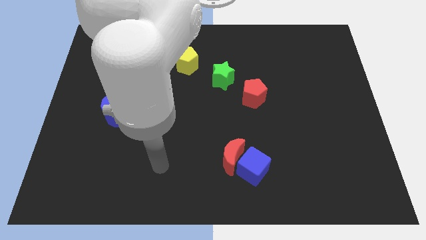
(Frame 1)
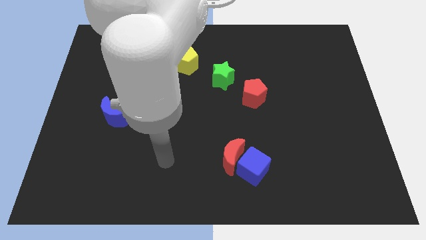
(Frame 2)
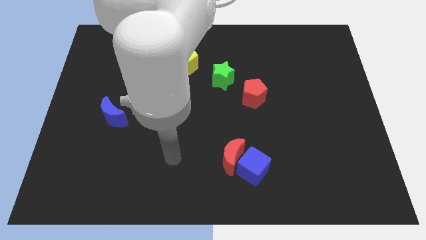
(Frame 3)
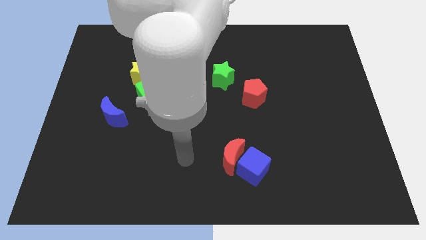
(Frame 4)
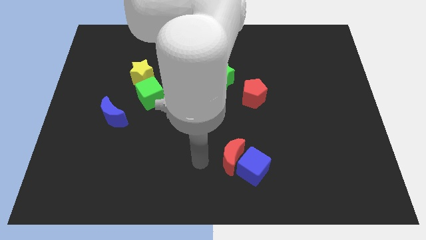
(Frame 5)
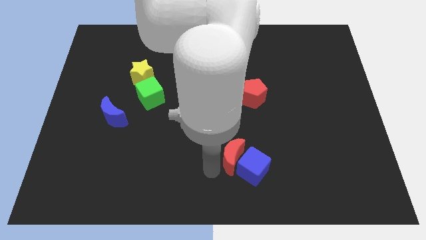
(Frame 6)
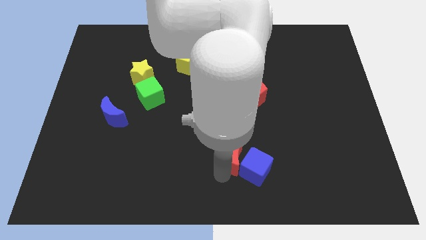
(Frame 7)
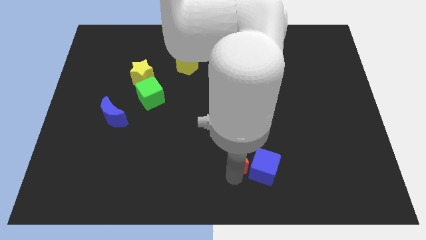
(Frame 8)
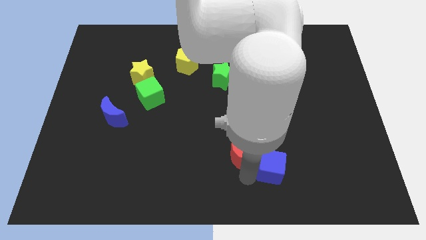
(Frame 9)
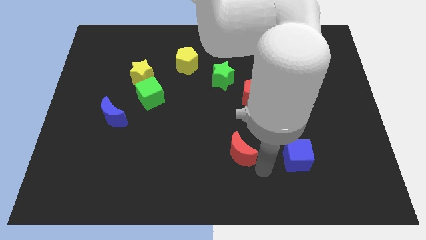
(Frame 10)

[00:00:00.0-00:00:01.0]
move the red moon away from the blue cube

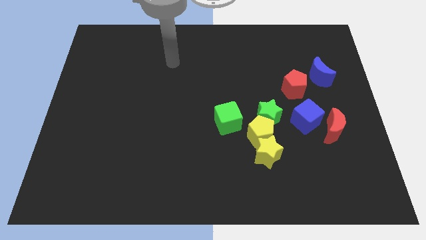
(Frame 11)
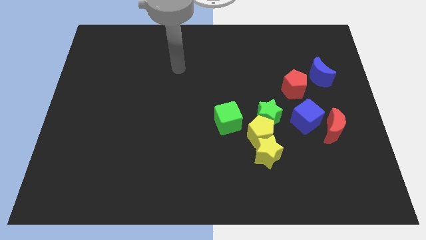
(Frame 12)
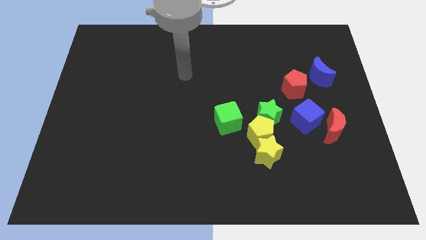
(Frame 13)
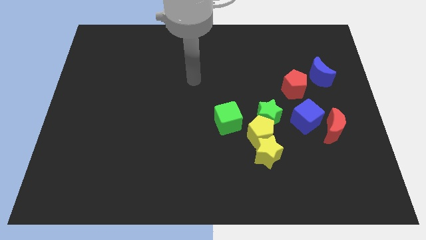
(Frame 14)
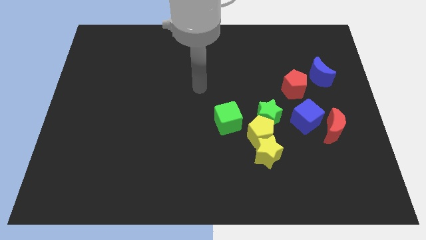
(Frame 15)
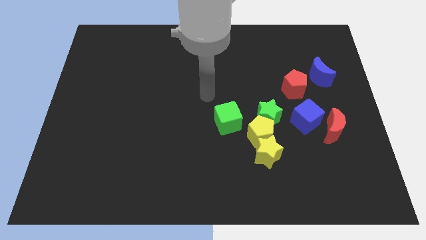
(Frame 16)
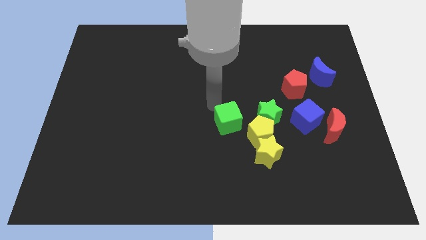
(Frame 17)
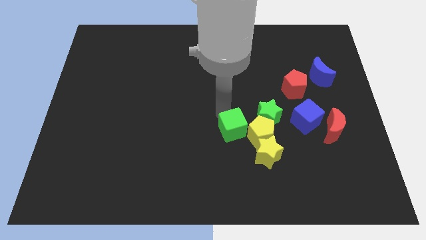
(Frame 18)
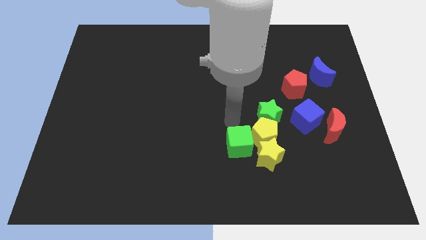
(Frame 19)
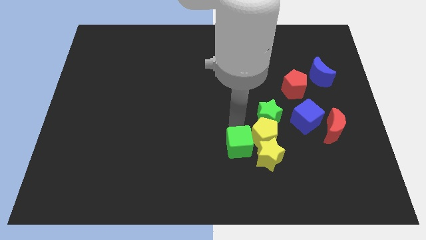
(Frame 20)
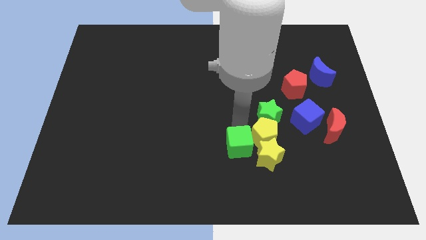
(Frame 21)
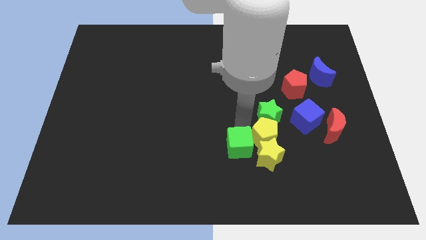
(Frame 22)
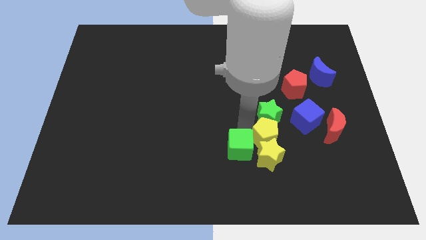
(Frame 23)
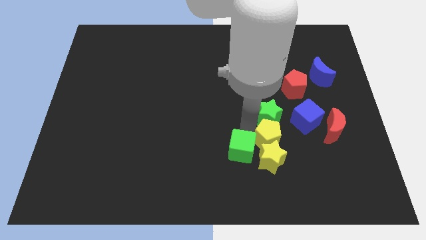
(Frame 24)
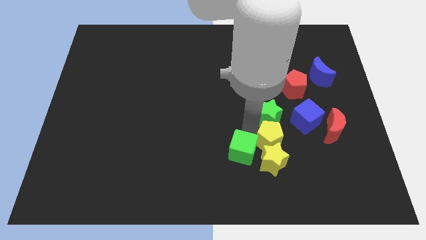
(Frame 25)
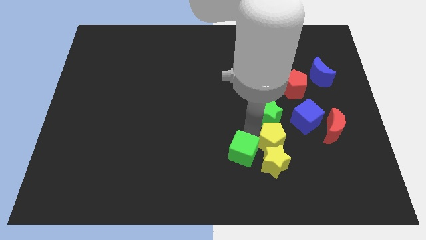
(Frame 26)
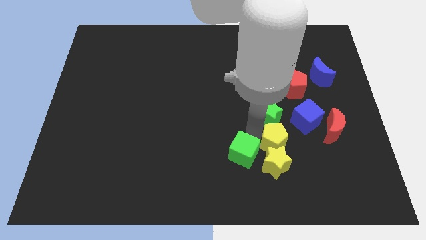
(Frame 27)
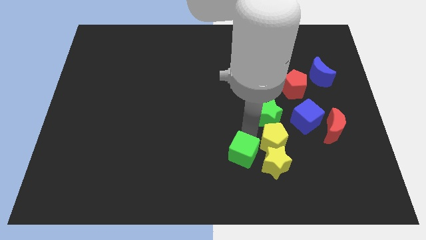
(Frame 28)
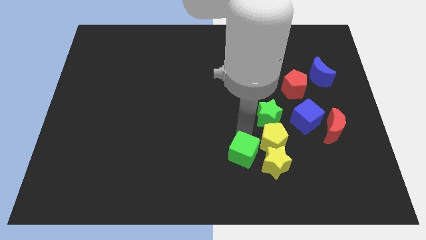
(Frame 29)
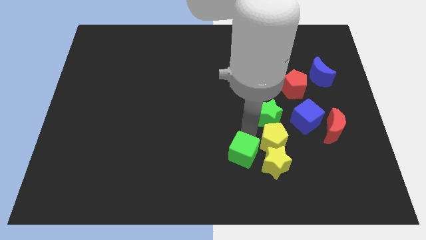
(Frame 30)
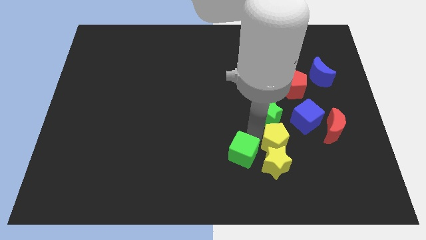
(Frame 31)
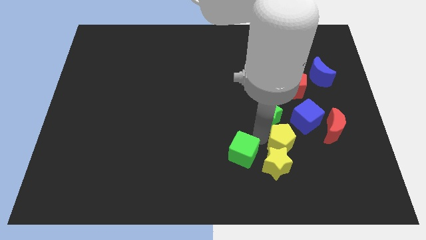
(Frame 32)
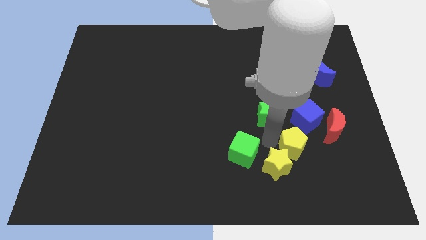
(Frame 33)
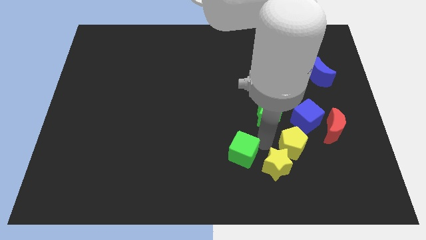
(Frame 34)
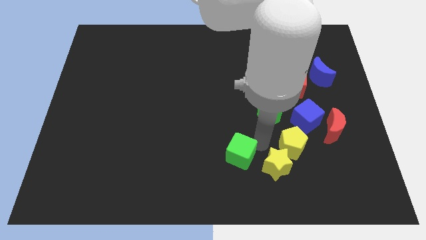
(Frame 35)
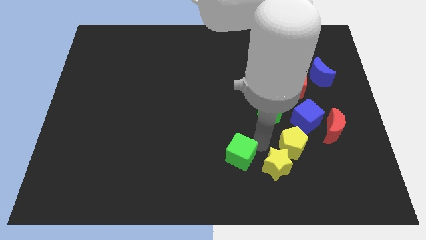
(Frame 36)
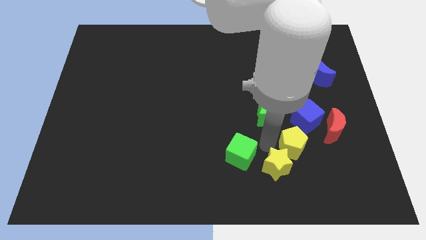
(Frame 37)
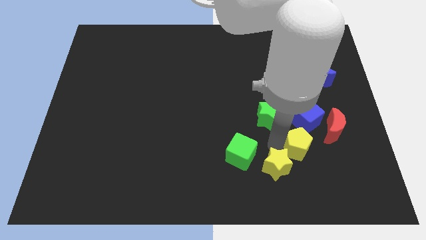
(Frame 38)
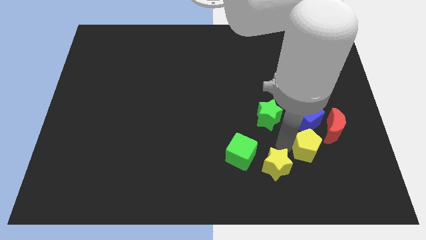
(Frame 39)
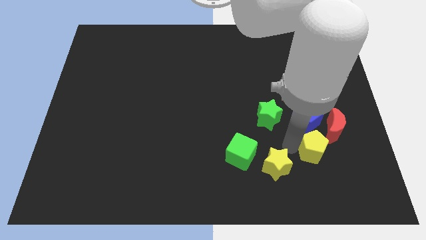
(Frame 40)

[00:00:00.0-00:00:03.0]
separate the yellow pentagon from the group of blocks

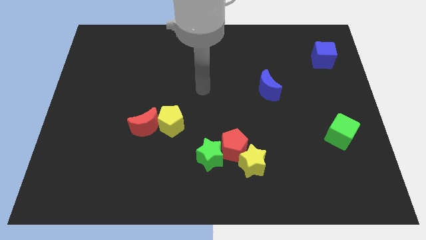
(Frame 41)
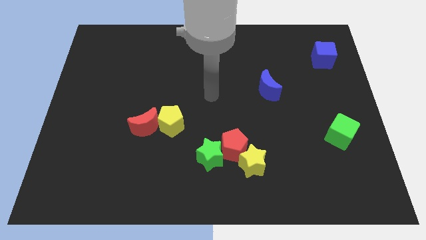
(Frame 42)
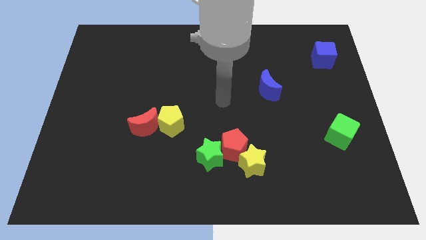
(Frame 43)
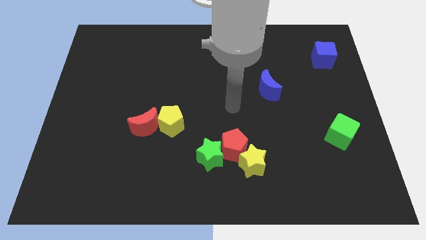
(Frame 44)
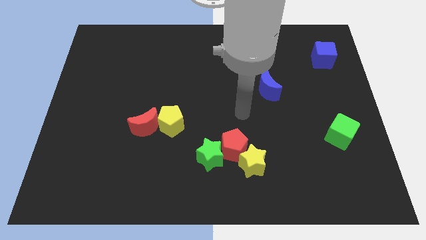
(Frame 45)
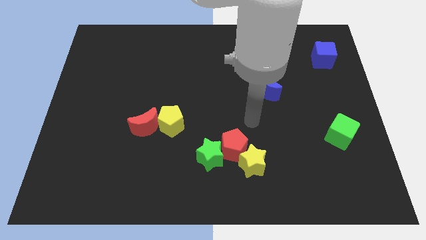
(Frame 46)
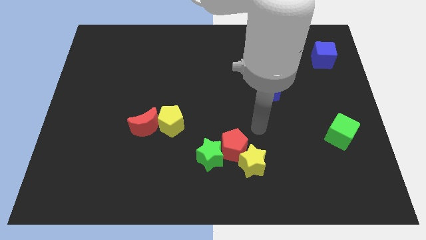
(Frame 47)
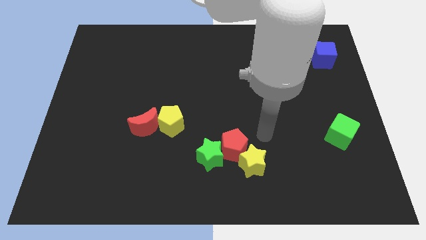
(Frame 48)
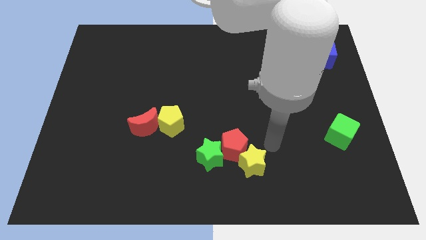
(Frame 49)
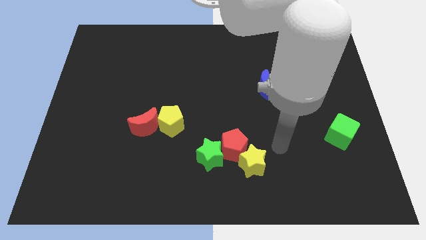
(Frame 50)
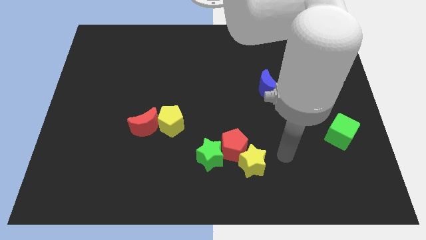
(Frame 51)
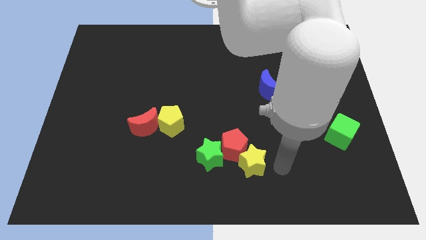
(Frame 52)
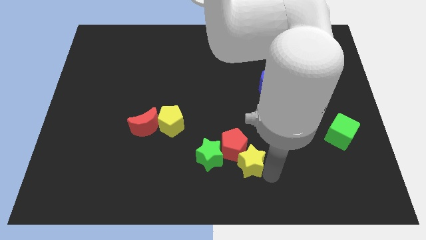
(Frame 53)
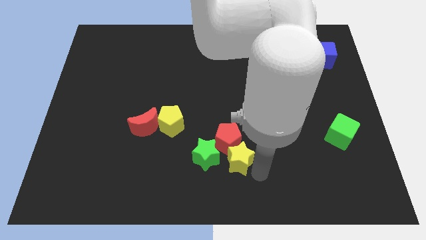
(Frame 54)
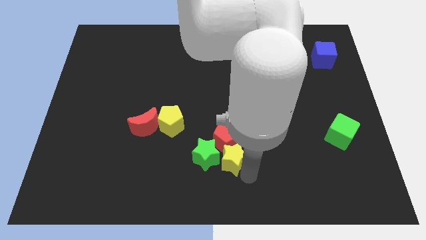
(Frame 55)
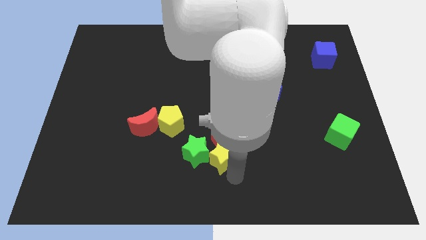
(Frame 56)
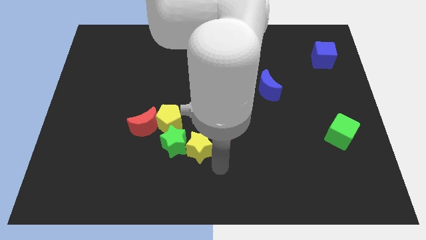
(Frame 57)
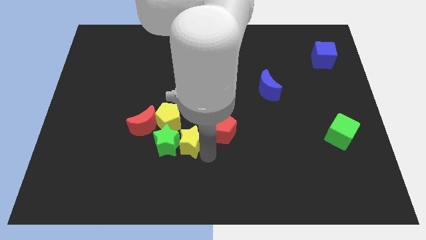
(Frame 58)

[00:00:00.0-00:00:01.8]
move the red pentagon away from the green star and yellow star

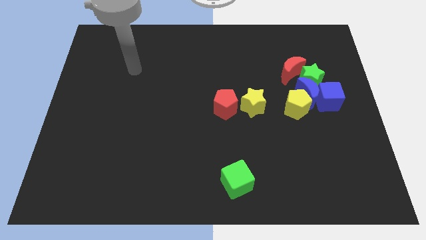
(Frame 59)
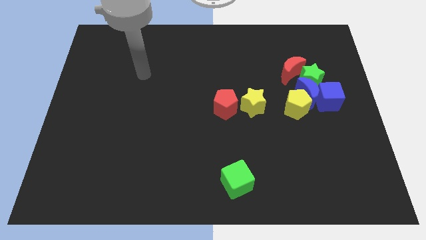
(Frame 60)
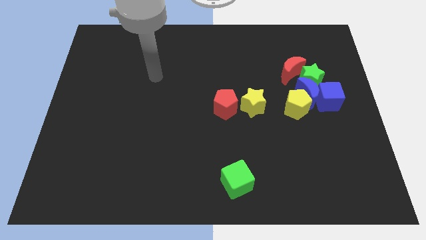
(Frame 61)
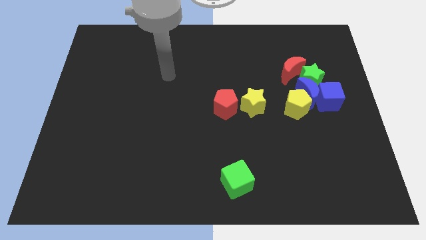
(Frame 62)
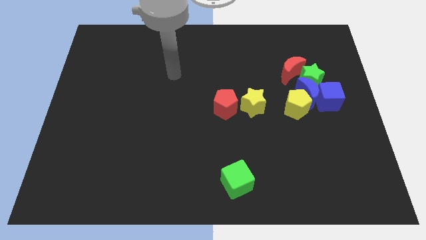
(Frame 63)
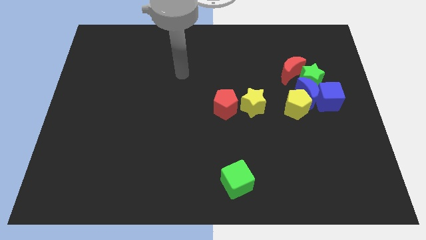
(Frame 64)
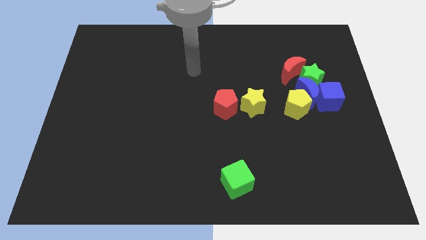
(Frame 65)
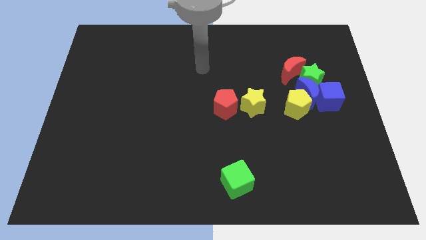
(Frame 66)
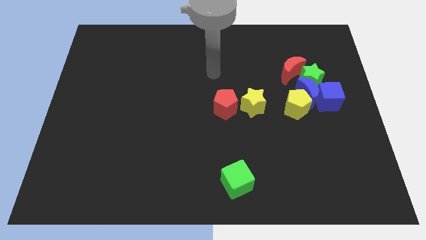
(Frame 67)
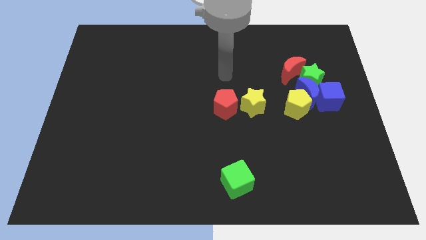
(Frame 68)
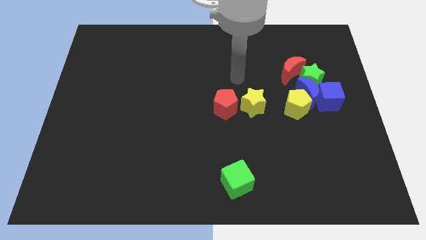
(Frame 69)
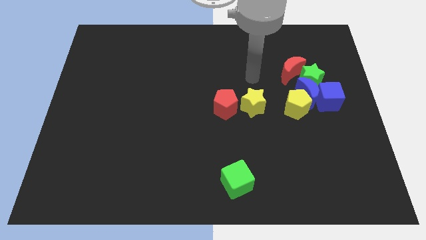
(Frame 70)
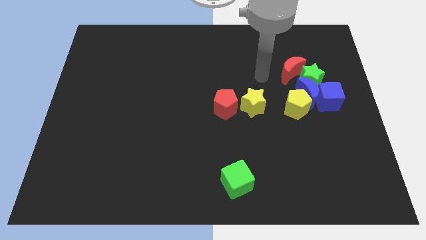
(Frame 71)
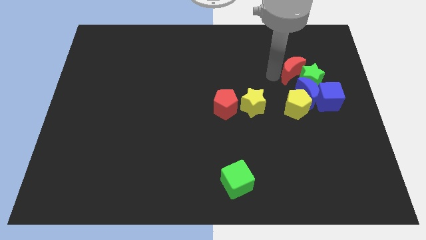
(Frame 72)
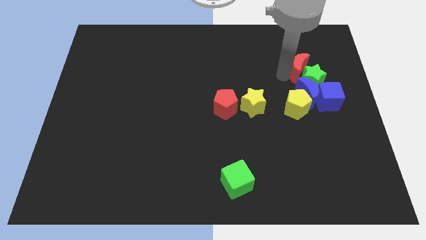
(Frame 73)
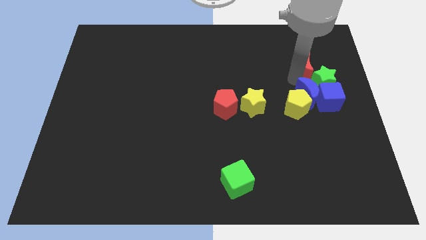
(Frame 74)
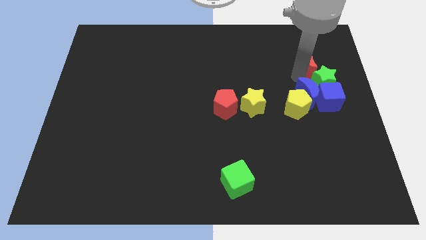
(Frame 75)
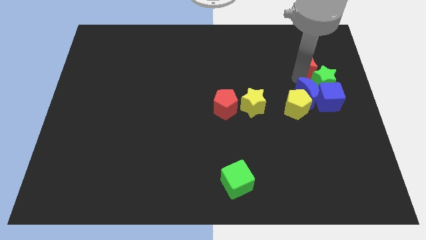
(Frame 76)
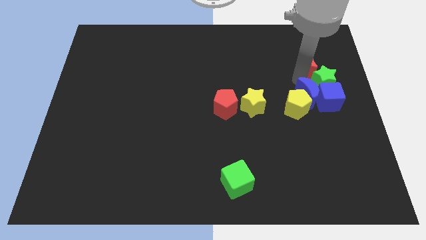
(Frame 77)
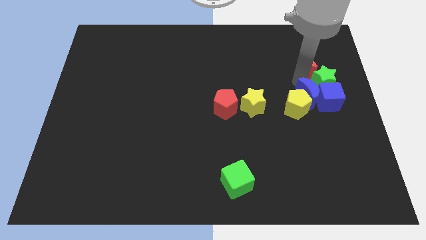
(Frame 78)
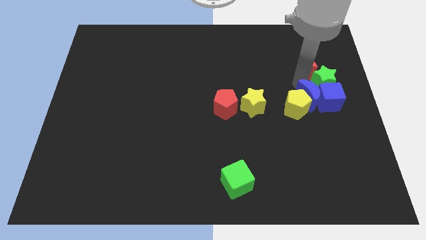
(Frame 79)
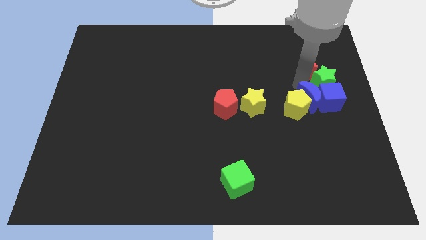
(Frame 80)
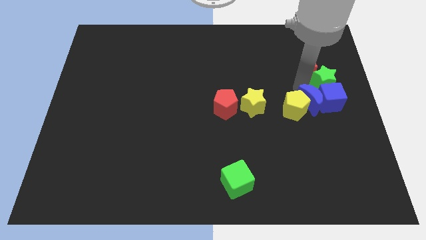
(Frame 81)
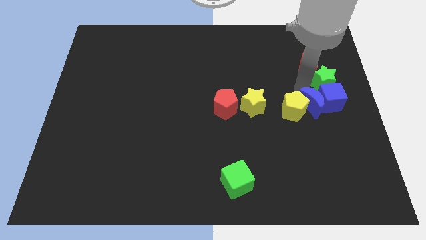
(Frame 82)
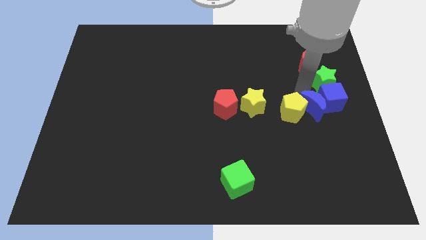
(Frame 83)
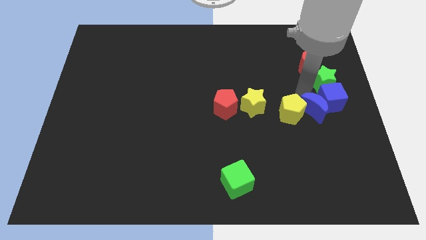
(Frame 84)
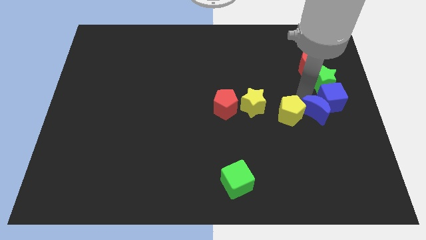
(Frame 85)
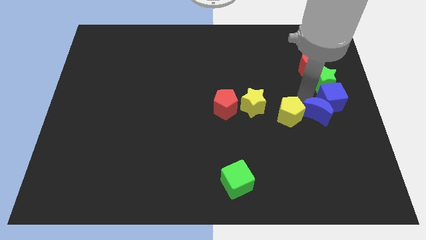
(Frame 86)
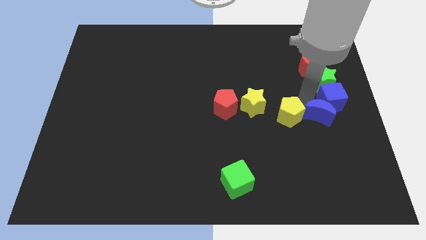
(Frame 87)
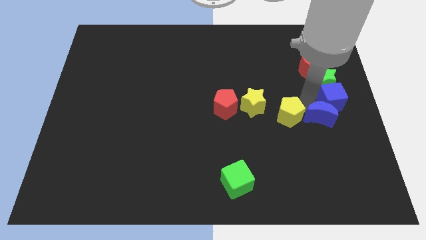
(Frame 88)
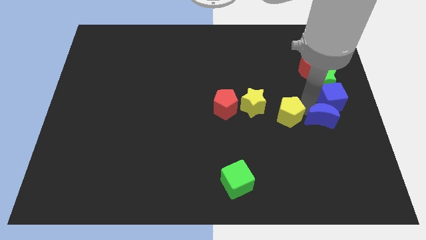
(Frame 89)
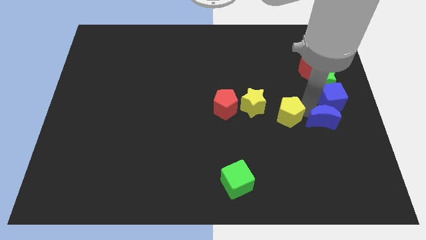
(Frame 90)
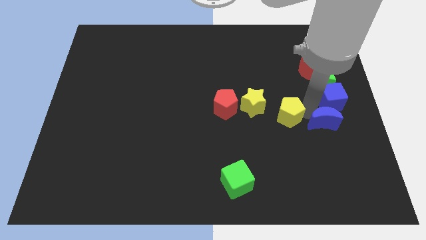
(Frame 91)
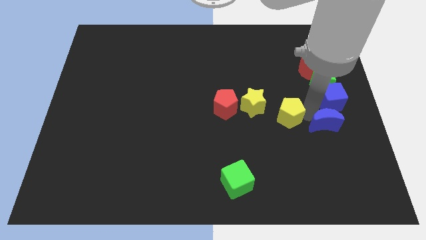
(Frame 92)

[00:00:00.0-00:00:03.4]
move the blue moon away from the group of blocks
